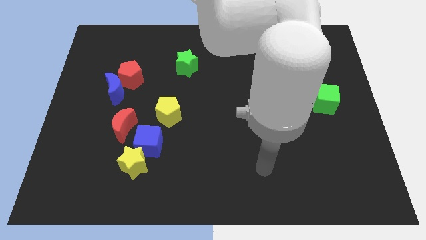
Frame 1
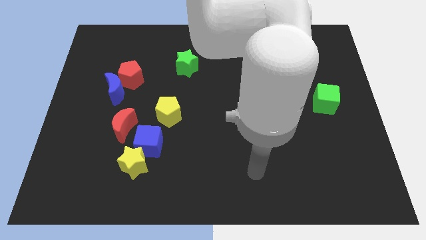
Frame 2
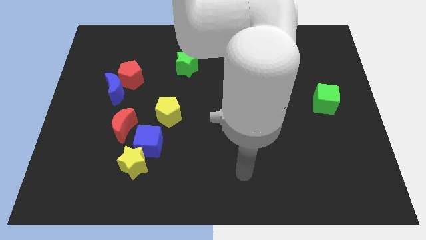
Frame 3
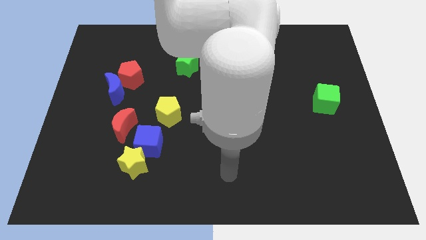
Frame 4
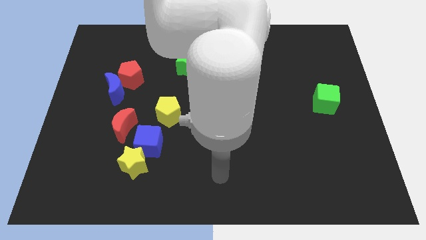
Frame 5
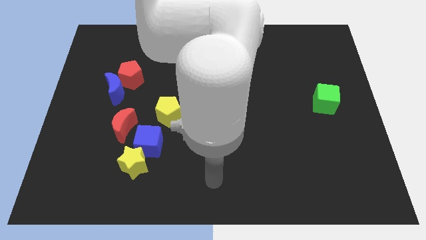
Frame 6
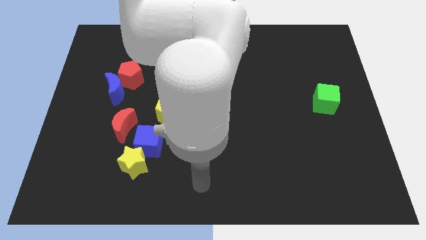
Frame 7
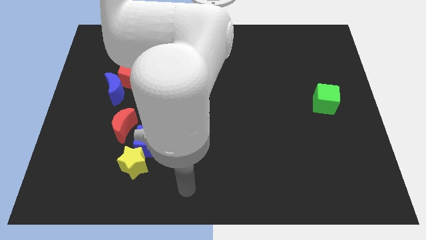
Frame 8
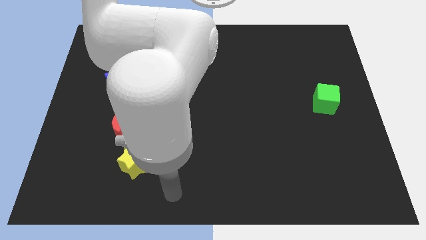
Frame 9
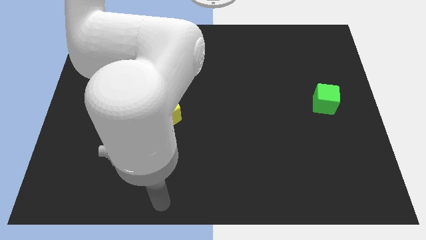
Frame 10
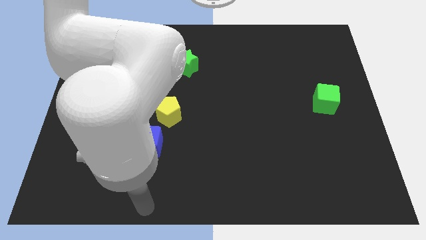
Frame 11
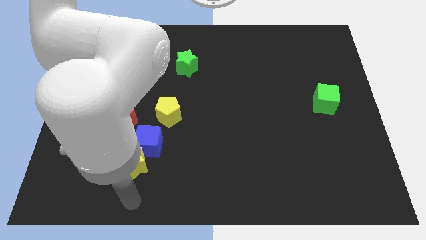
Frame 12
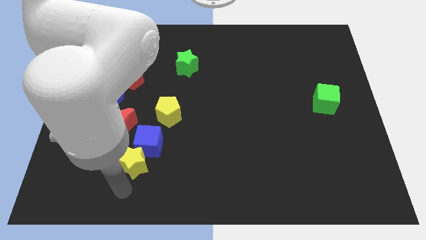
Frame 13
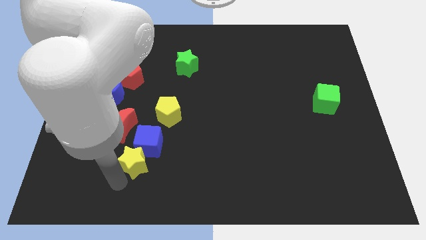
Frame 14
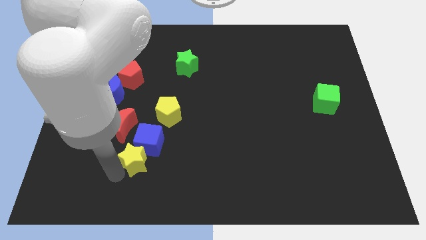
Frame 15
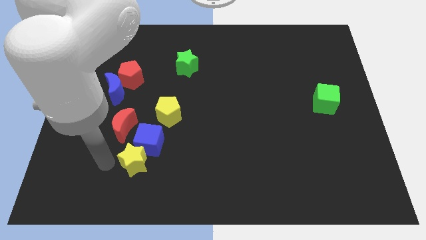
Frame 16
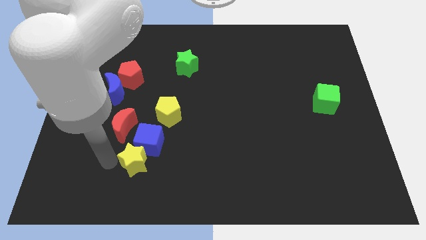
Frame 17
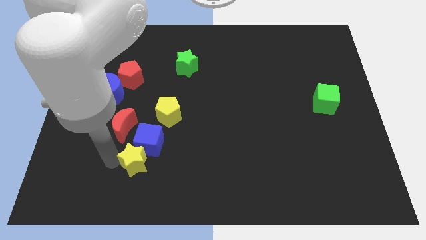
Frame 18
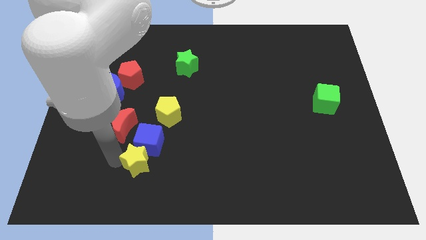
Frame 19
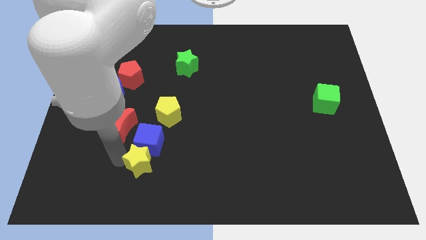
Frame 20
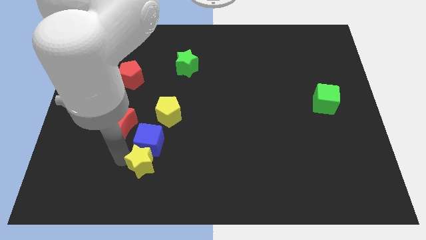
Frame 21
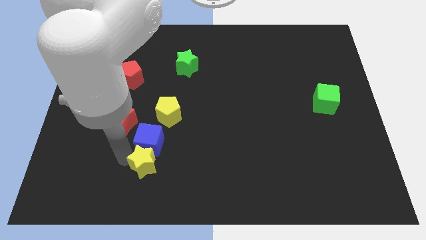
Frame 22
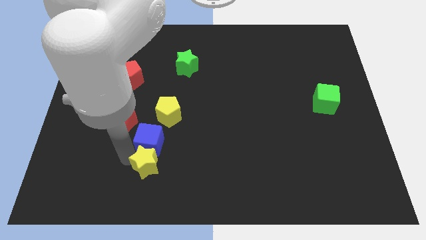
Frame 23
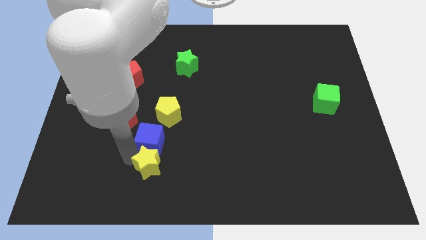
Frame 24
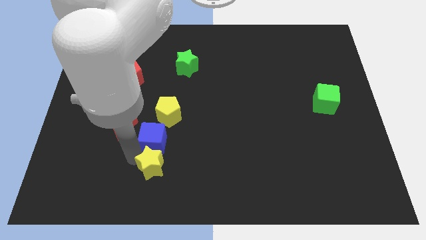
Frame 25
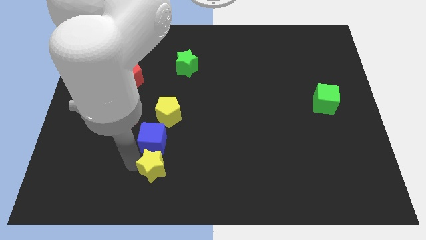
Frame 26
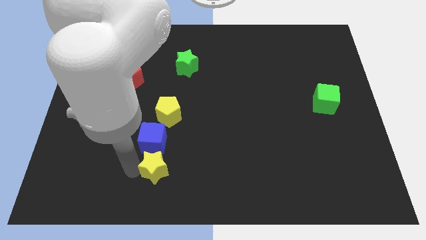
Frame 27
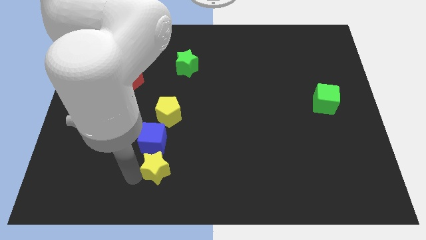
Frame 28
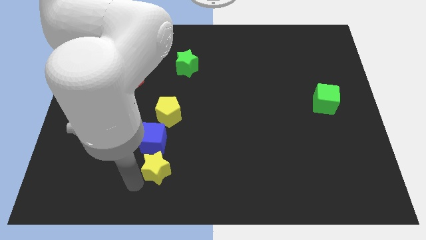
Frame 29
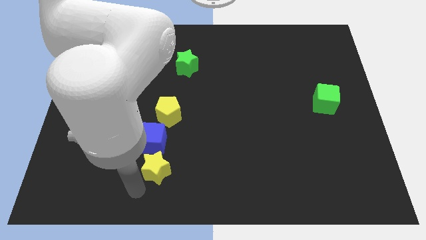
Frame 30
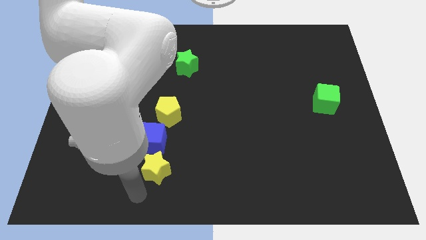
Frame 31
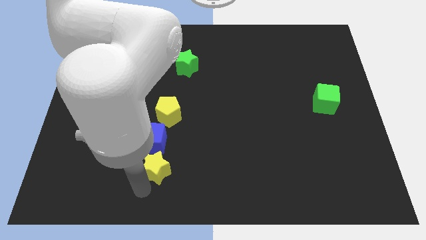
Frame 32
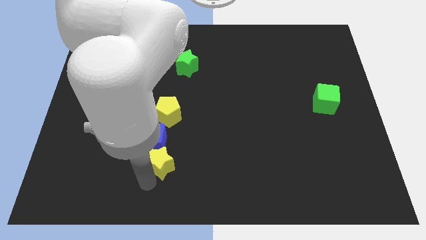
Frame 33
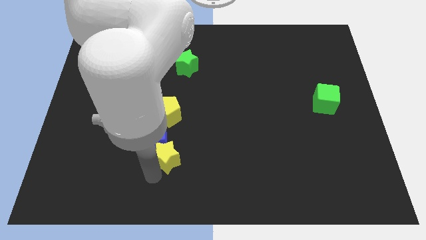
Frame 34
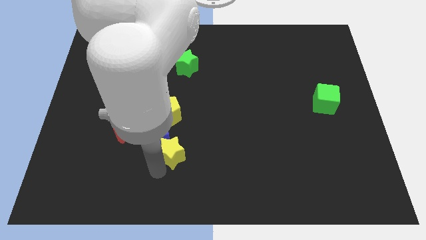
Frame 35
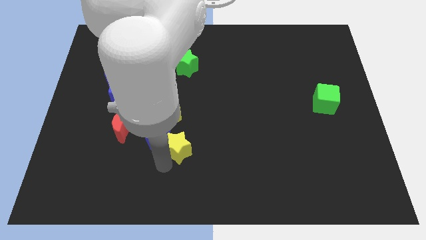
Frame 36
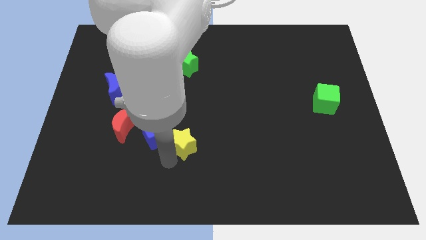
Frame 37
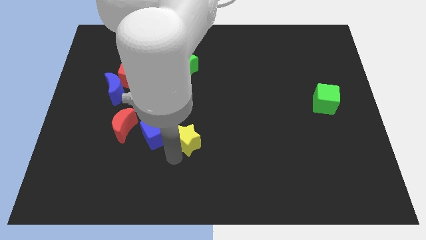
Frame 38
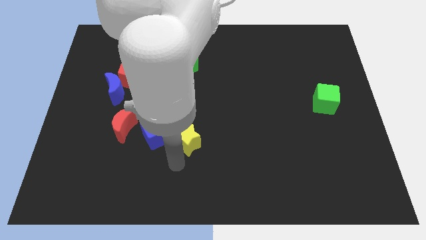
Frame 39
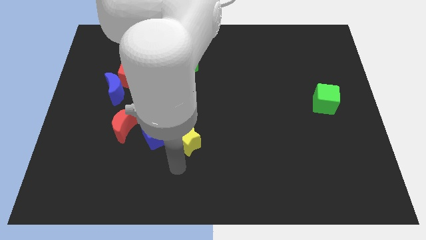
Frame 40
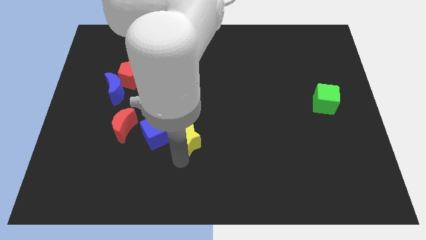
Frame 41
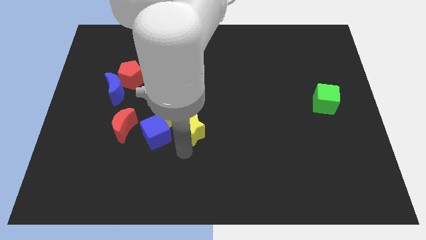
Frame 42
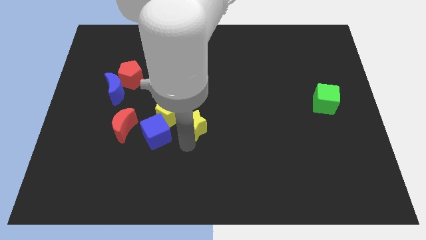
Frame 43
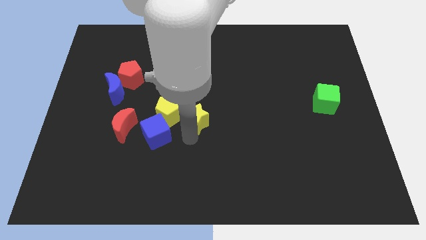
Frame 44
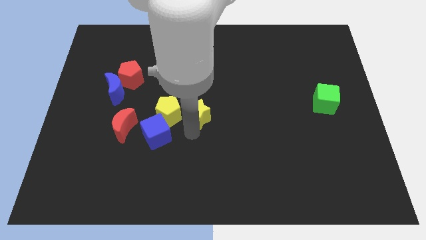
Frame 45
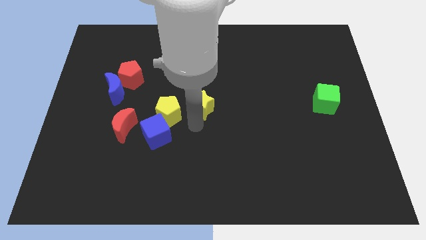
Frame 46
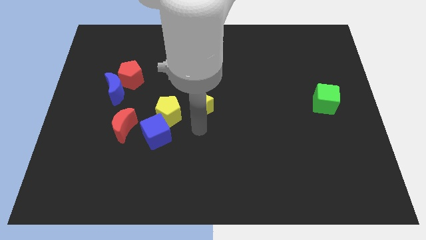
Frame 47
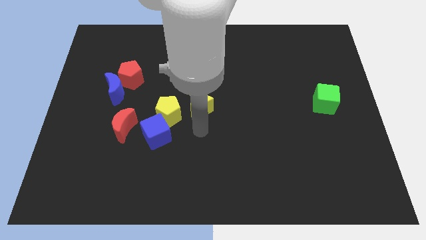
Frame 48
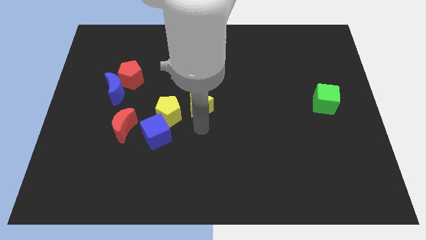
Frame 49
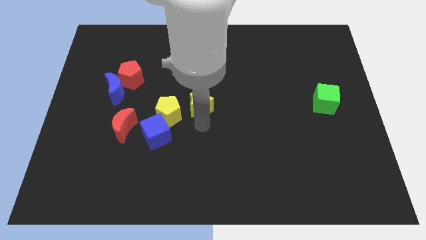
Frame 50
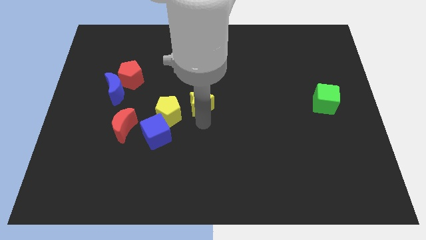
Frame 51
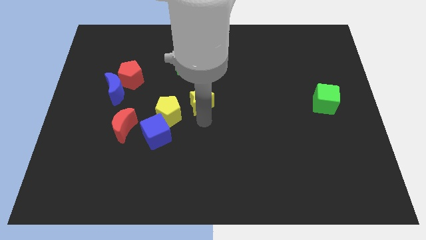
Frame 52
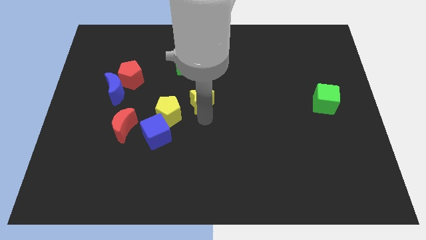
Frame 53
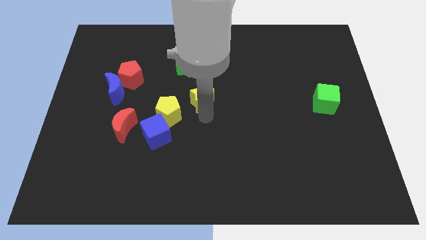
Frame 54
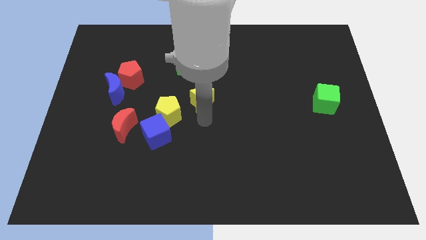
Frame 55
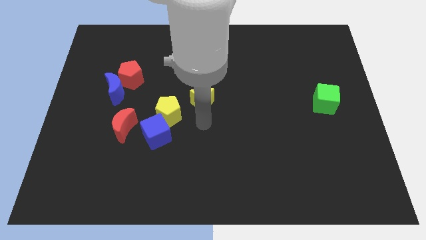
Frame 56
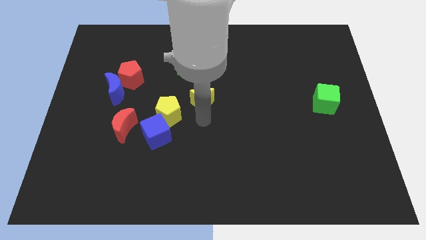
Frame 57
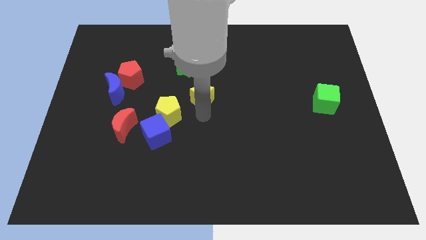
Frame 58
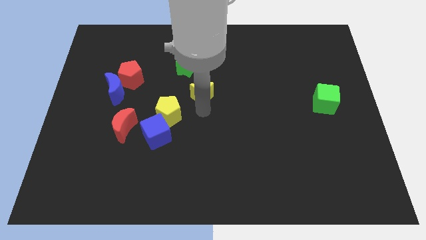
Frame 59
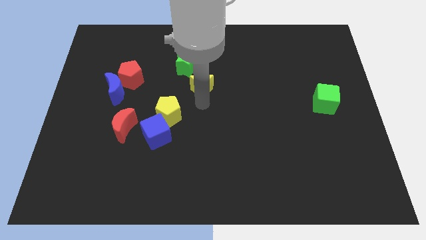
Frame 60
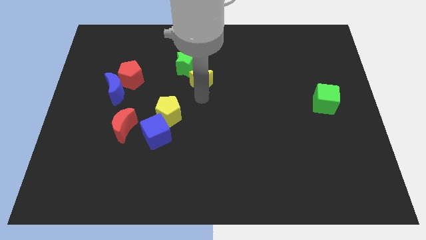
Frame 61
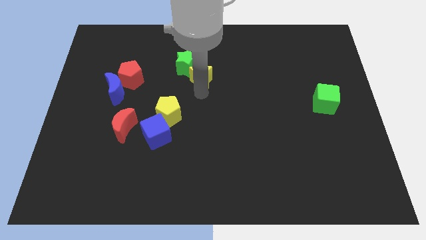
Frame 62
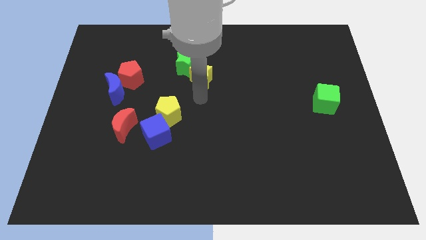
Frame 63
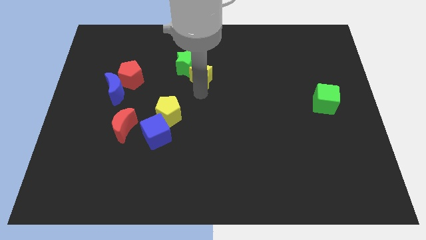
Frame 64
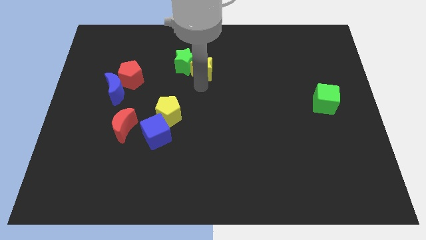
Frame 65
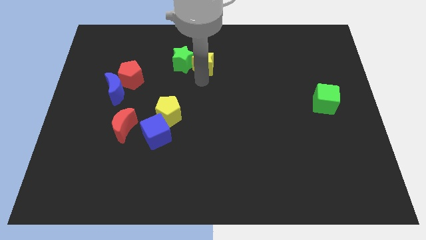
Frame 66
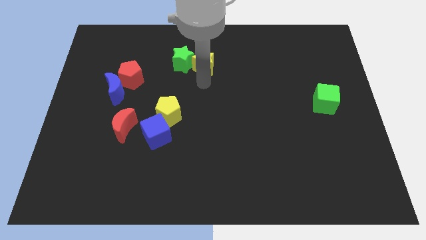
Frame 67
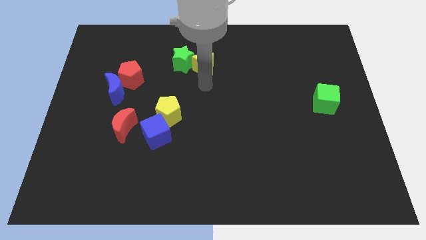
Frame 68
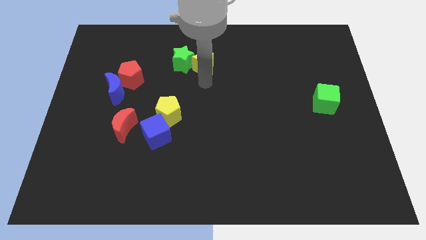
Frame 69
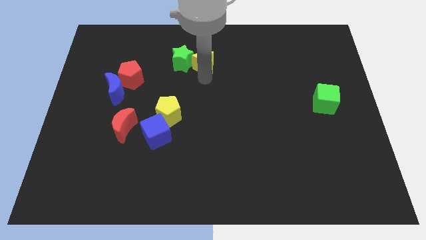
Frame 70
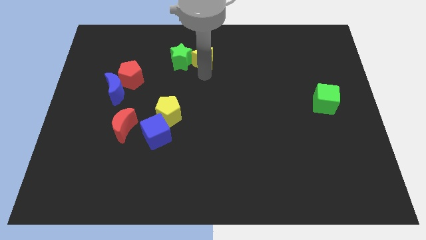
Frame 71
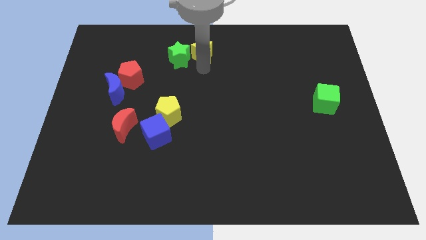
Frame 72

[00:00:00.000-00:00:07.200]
slide the yellow star to the top
